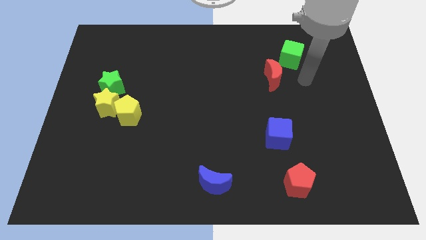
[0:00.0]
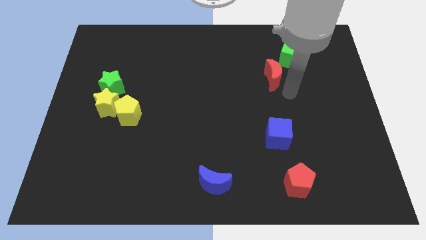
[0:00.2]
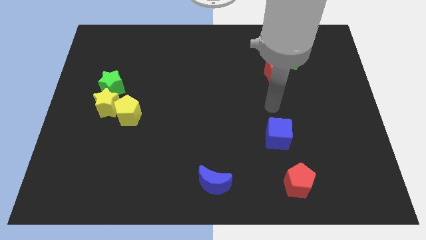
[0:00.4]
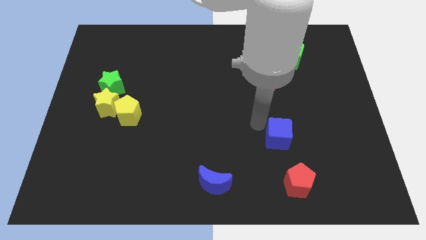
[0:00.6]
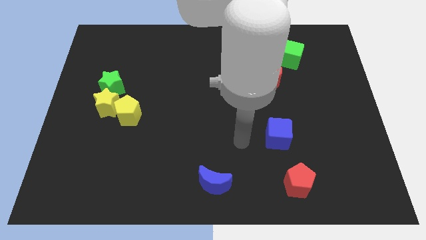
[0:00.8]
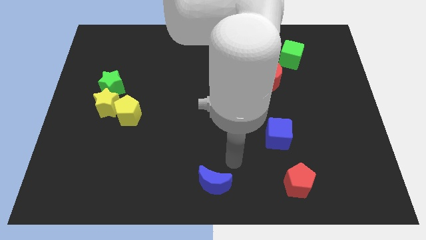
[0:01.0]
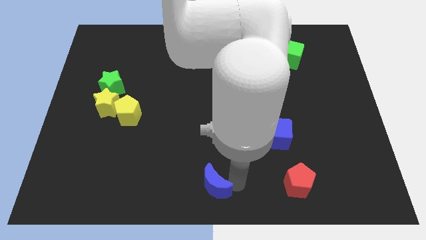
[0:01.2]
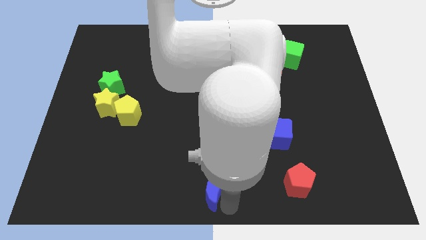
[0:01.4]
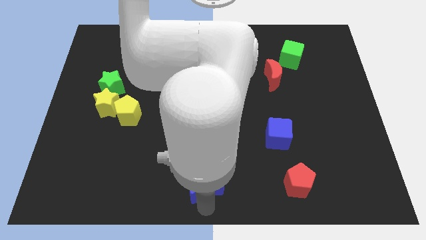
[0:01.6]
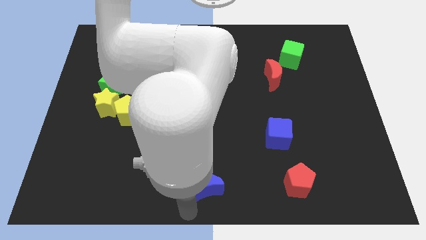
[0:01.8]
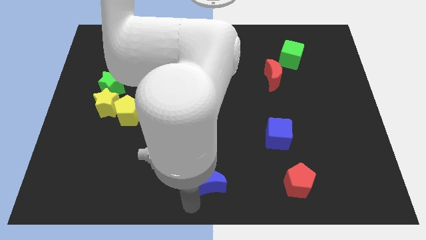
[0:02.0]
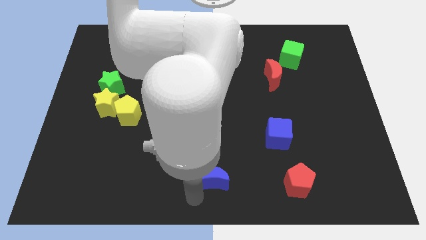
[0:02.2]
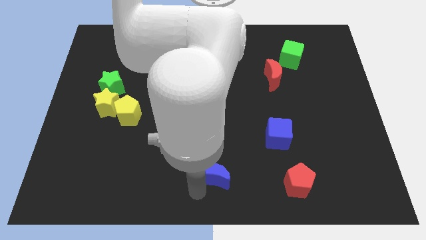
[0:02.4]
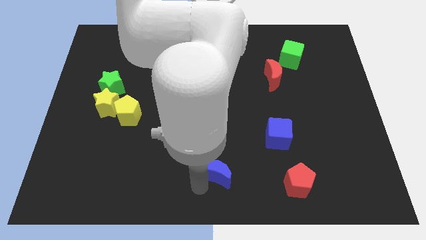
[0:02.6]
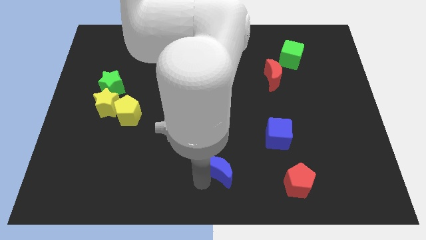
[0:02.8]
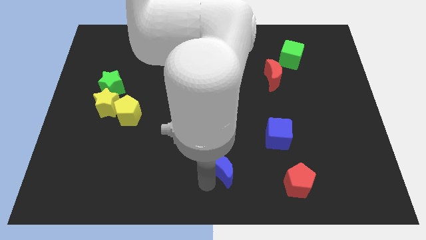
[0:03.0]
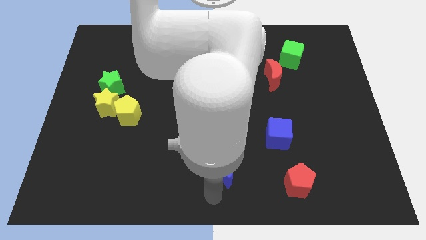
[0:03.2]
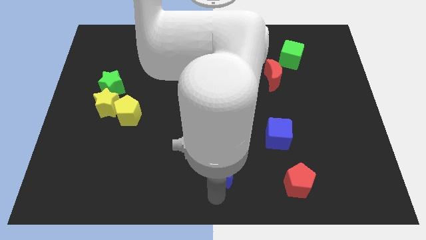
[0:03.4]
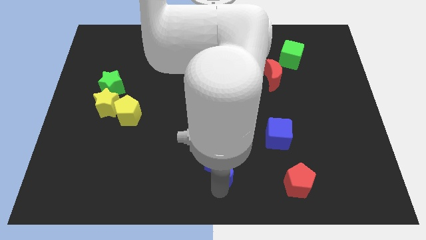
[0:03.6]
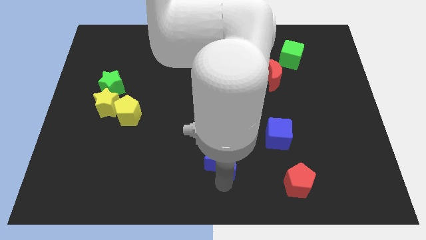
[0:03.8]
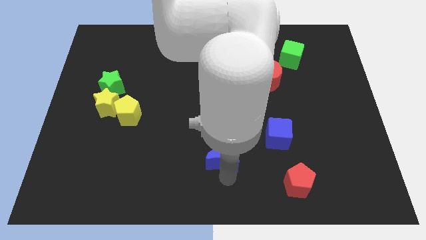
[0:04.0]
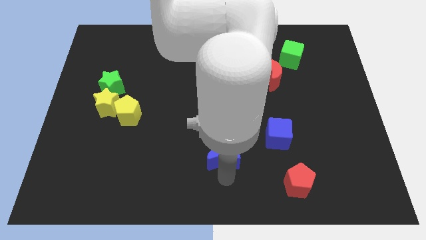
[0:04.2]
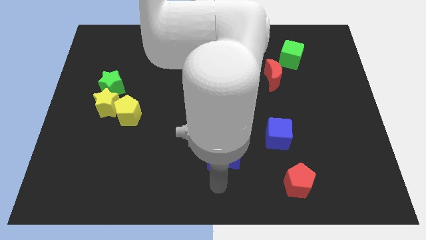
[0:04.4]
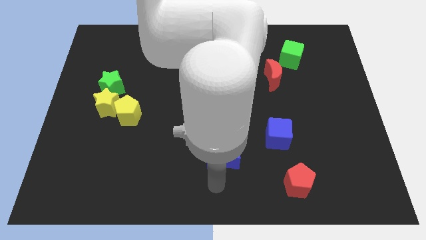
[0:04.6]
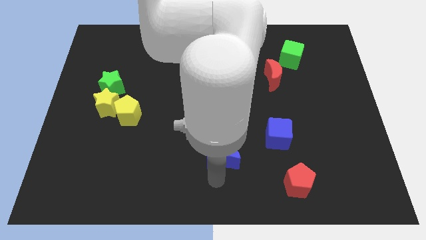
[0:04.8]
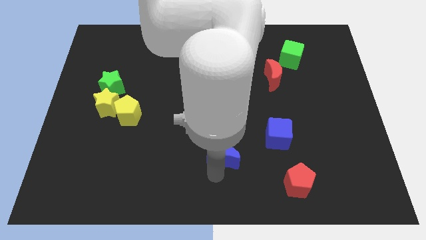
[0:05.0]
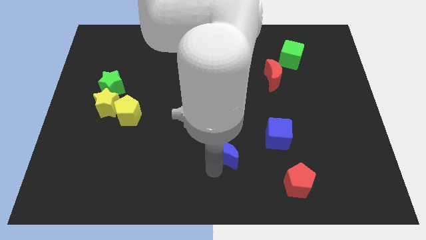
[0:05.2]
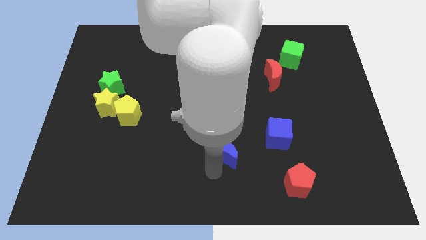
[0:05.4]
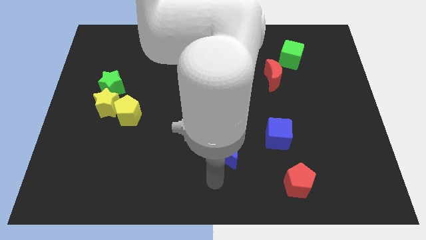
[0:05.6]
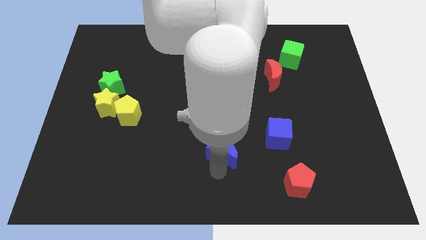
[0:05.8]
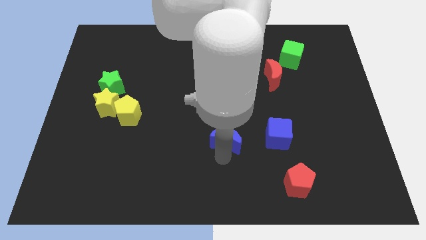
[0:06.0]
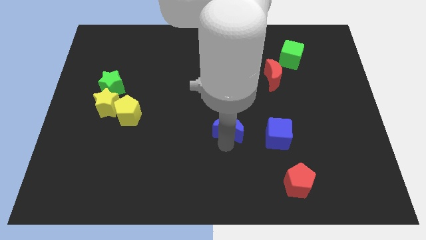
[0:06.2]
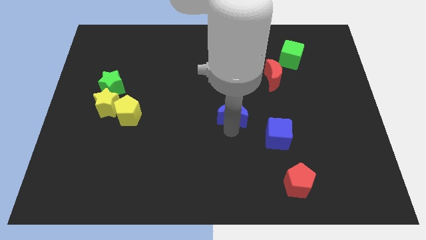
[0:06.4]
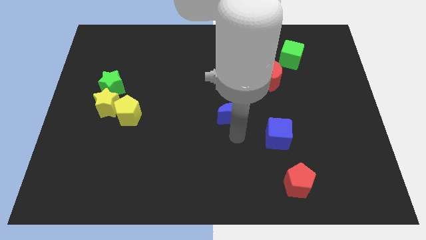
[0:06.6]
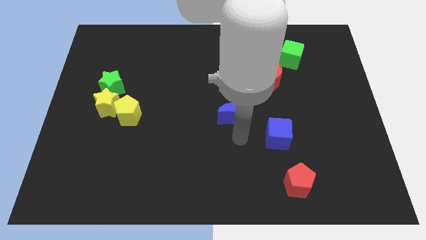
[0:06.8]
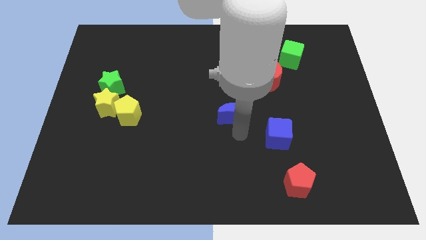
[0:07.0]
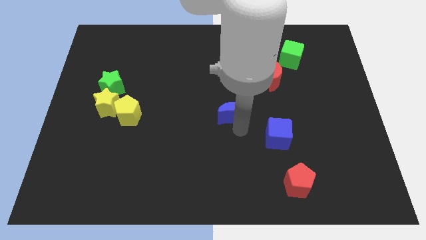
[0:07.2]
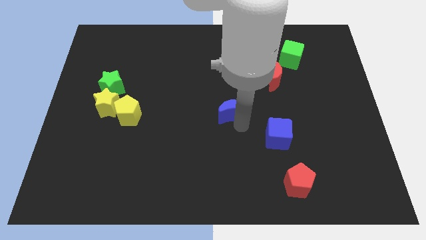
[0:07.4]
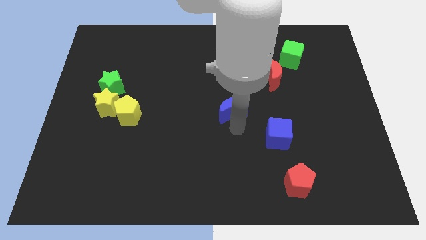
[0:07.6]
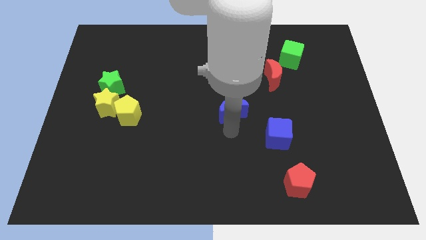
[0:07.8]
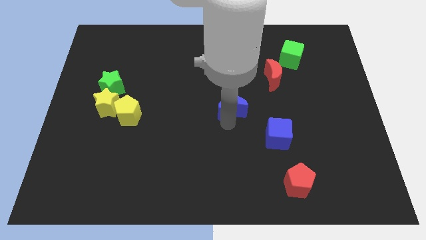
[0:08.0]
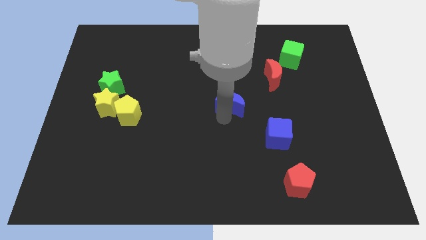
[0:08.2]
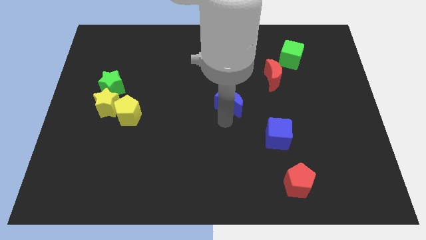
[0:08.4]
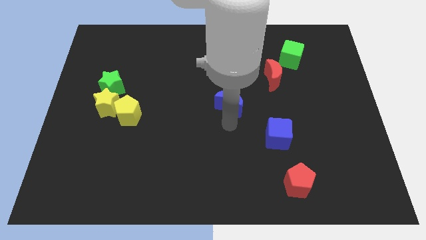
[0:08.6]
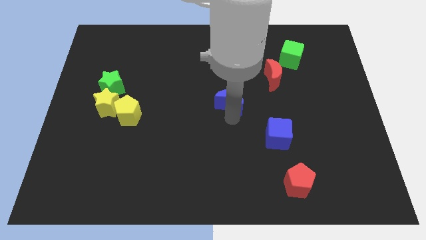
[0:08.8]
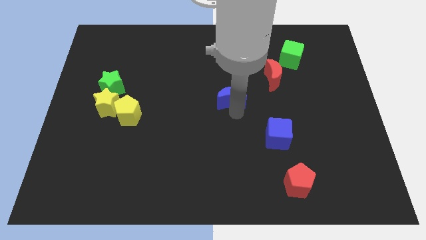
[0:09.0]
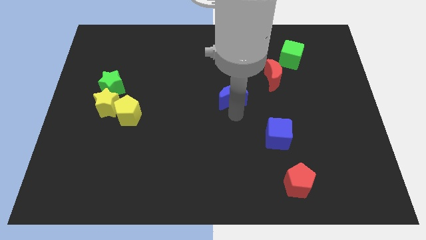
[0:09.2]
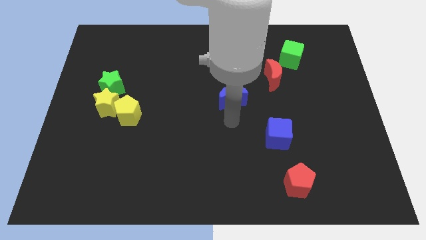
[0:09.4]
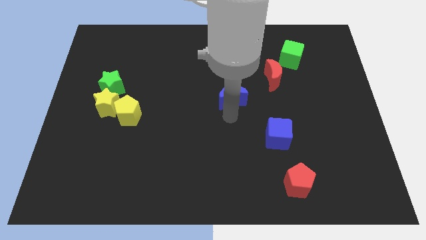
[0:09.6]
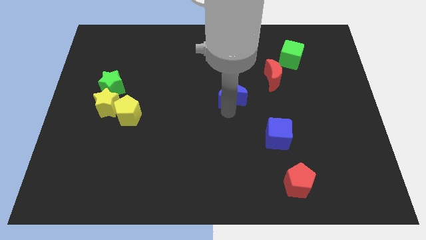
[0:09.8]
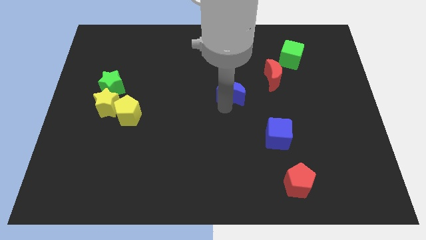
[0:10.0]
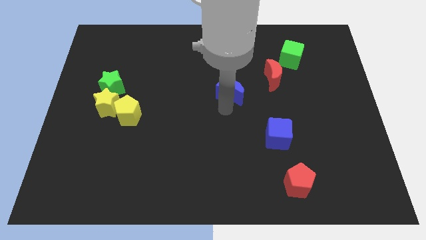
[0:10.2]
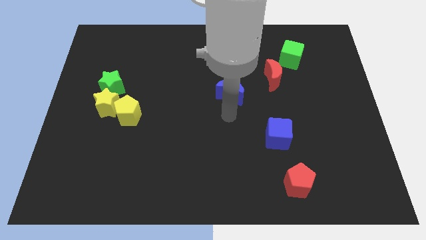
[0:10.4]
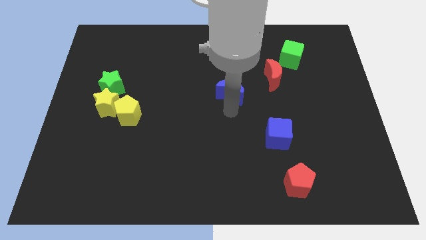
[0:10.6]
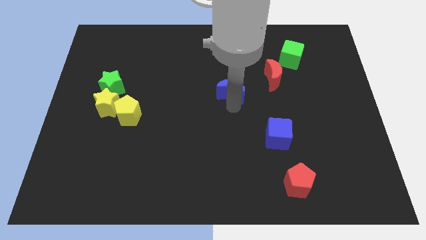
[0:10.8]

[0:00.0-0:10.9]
slide the blue moon just left of the red moon
